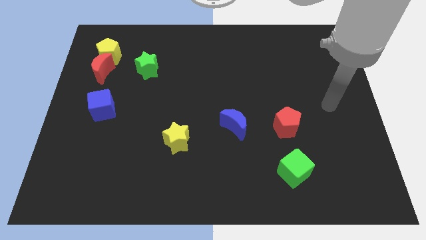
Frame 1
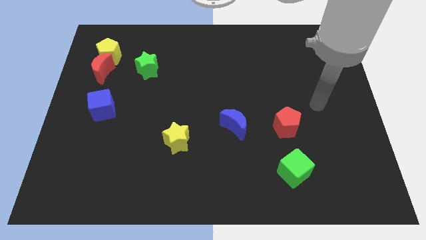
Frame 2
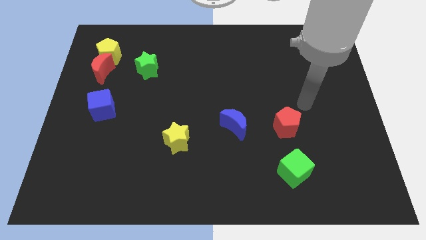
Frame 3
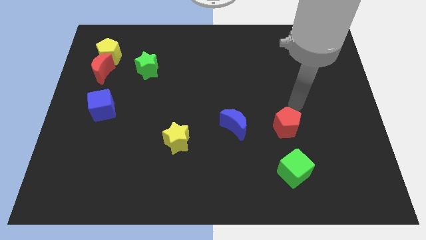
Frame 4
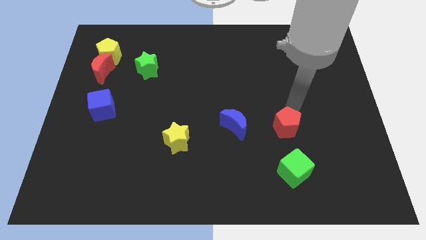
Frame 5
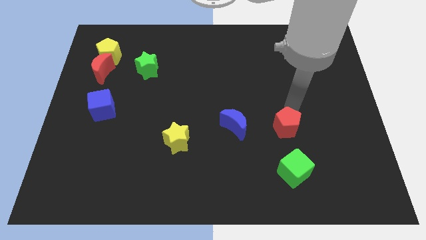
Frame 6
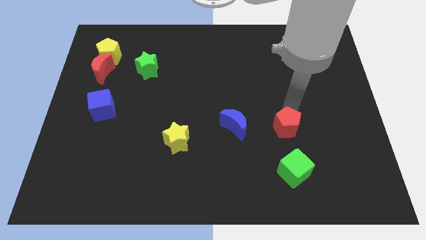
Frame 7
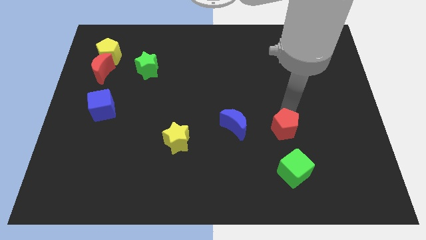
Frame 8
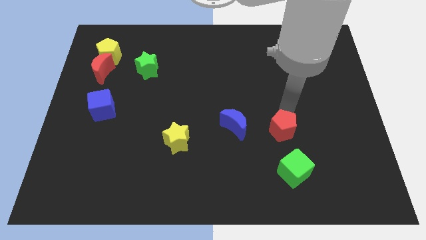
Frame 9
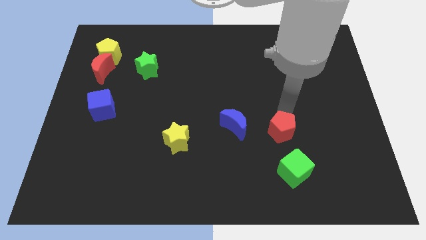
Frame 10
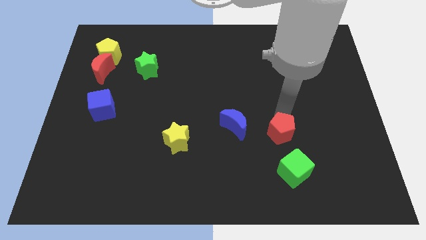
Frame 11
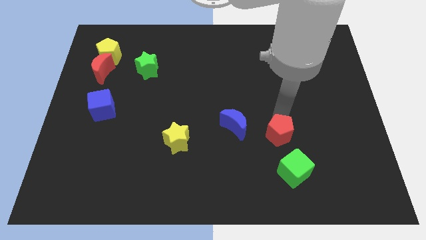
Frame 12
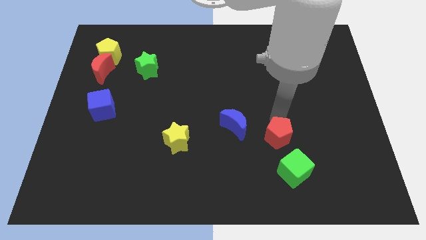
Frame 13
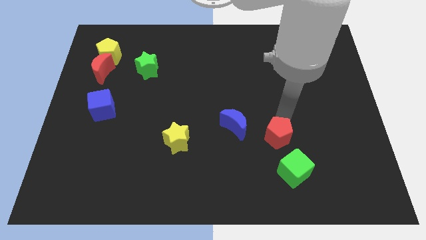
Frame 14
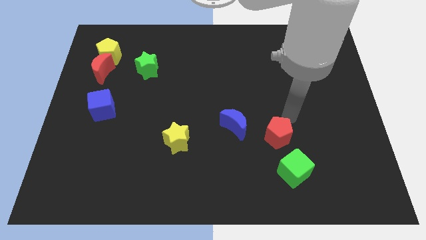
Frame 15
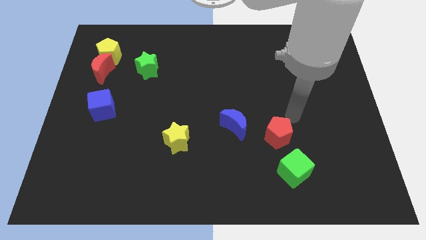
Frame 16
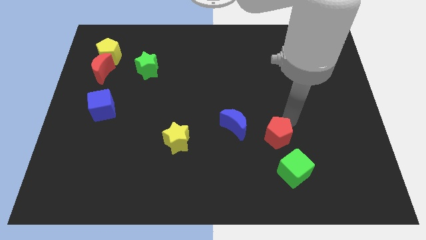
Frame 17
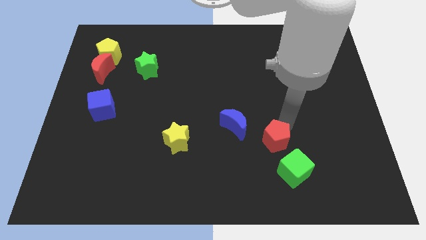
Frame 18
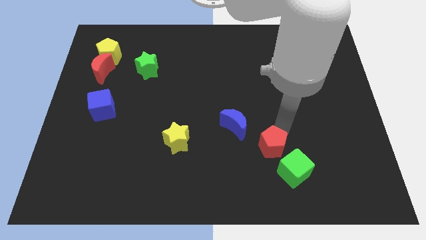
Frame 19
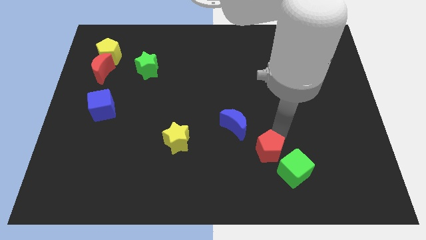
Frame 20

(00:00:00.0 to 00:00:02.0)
slide the red pentagon downwards and left diagonally slightly

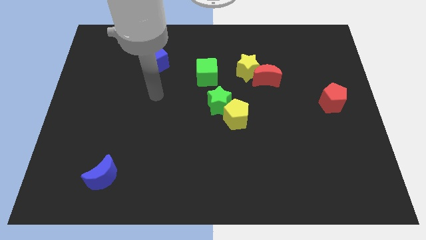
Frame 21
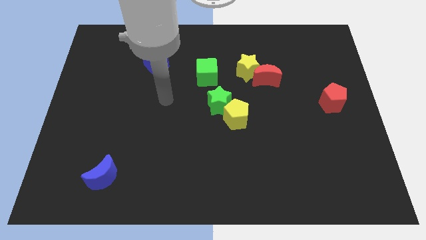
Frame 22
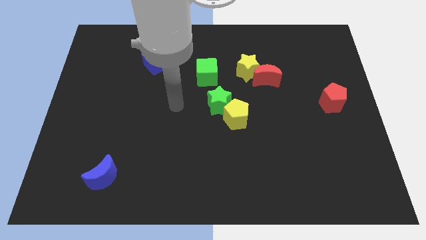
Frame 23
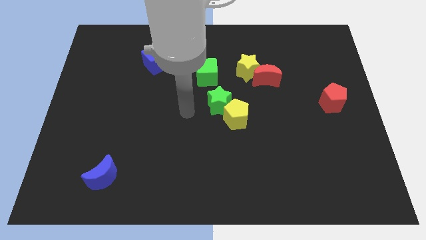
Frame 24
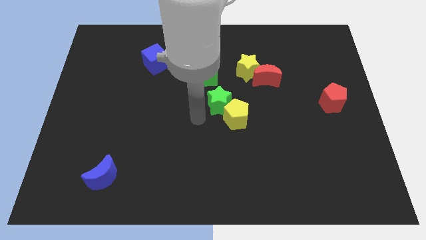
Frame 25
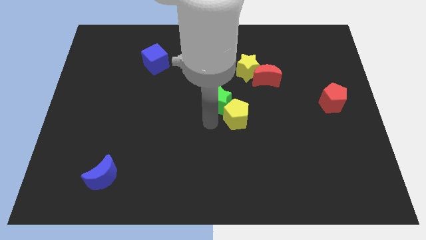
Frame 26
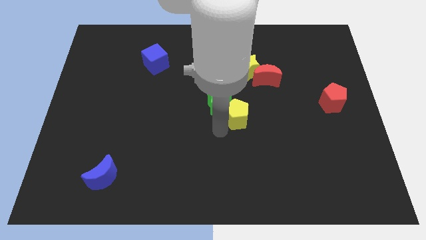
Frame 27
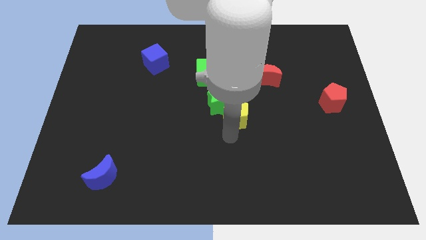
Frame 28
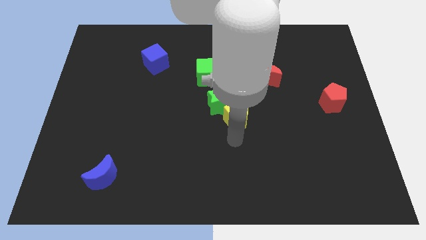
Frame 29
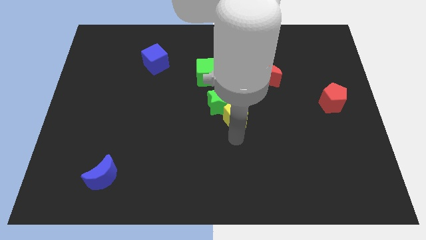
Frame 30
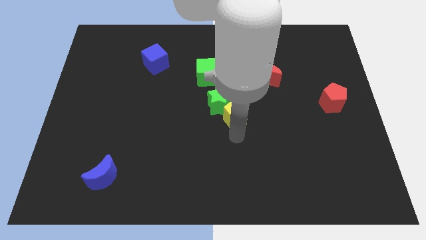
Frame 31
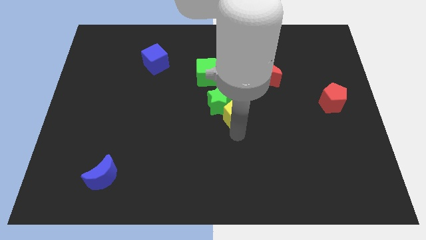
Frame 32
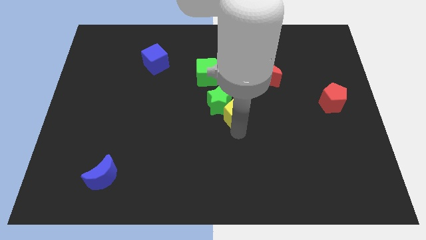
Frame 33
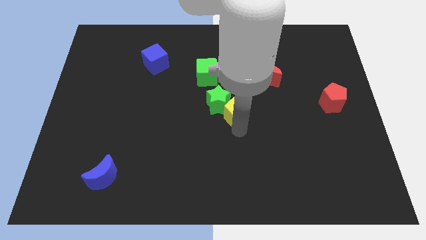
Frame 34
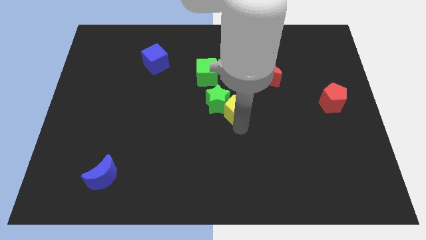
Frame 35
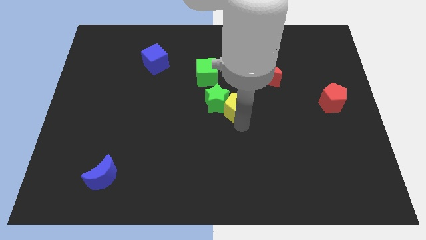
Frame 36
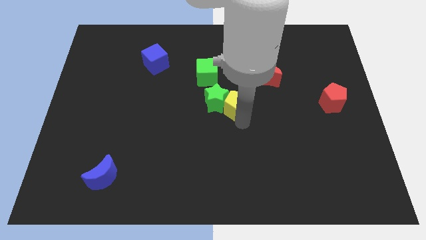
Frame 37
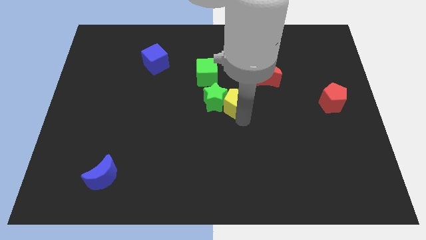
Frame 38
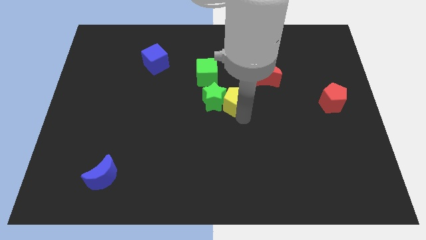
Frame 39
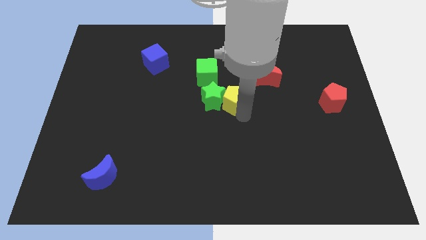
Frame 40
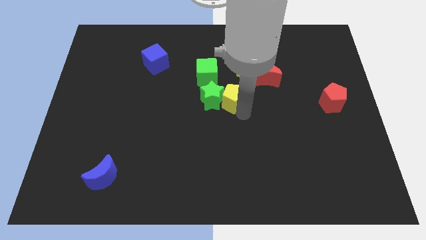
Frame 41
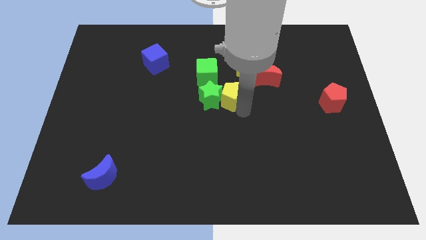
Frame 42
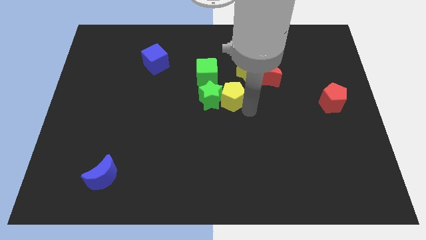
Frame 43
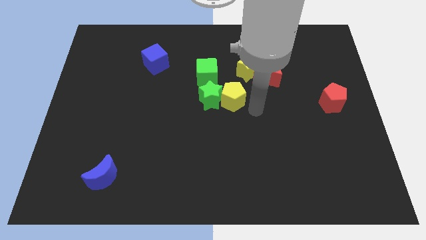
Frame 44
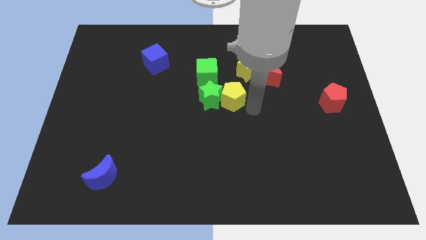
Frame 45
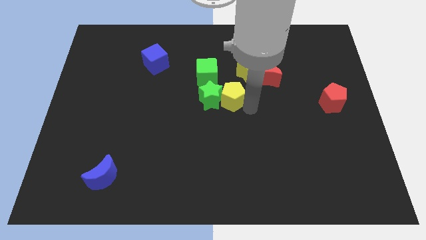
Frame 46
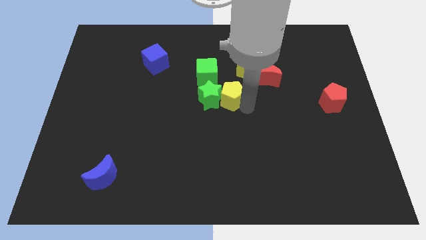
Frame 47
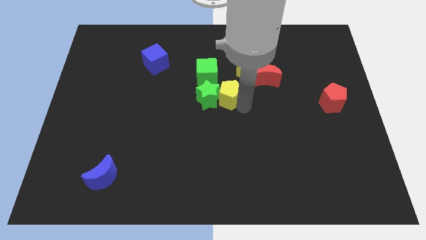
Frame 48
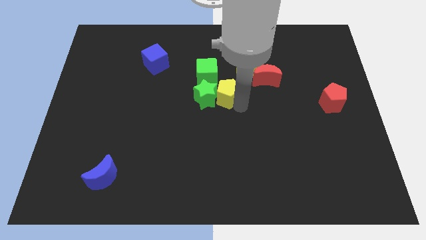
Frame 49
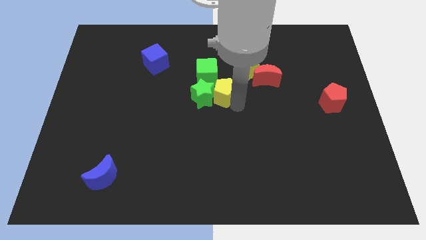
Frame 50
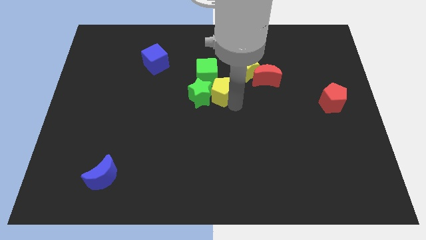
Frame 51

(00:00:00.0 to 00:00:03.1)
move the yellow pentagon a bit upwards and then to the left

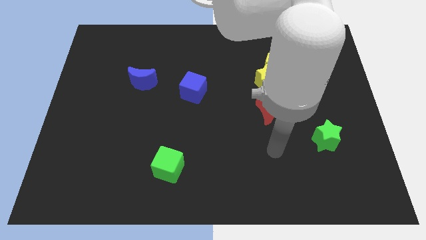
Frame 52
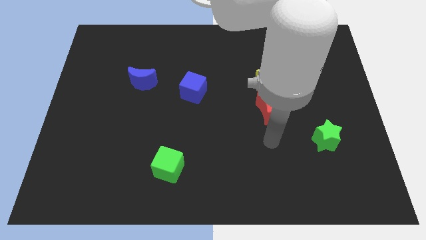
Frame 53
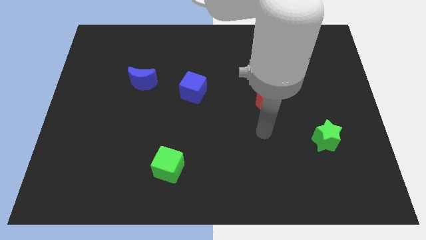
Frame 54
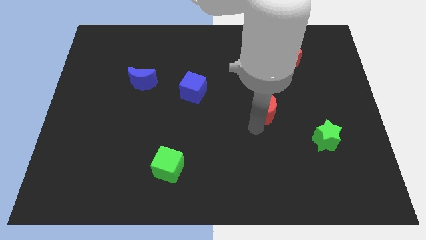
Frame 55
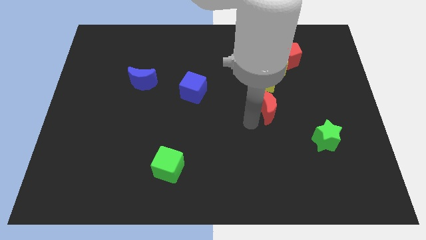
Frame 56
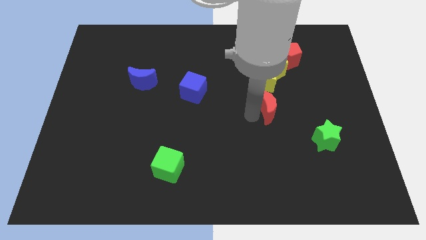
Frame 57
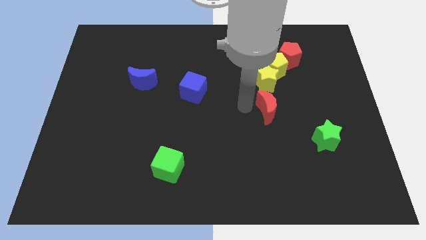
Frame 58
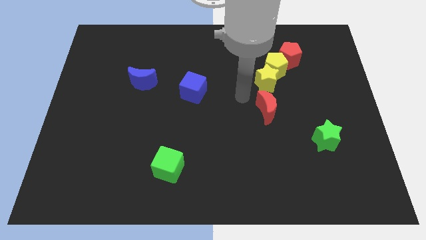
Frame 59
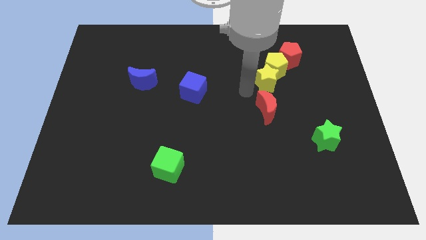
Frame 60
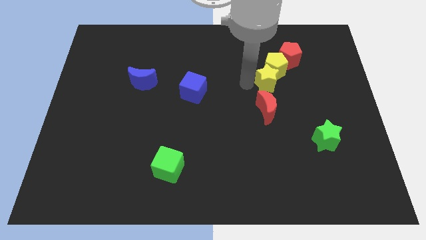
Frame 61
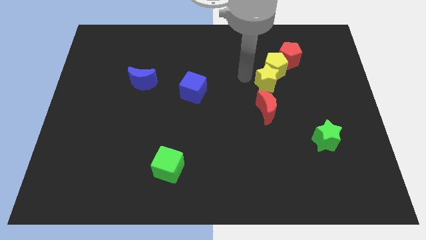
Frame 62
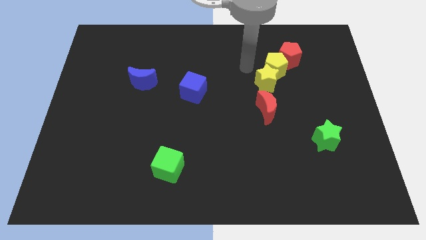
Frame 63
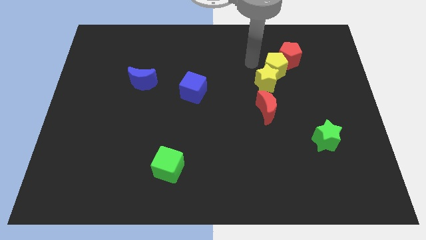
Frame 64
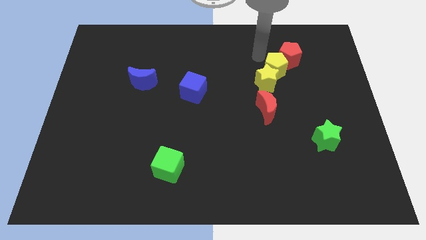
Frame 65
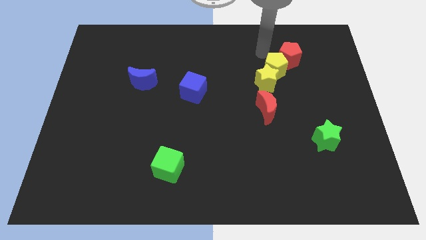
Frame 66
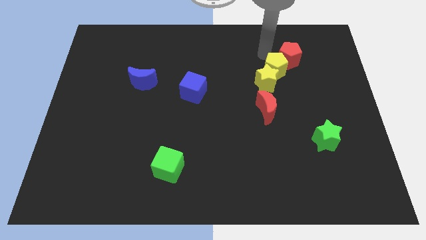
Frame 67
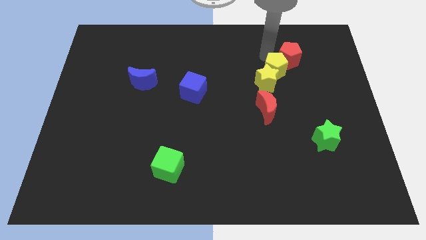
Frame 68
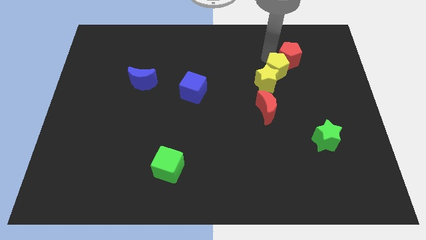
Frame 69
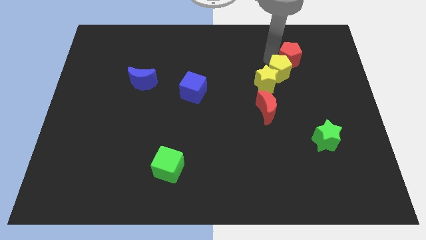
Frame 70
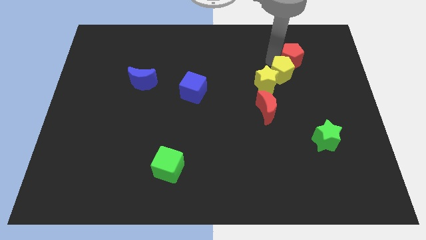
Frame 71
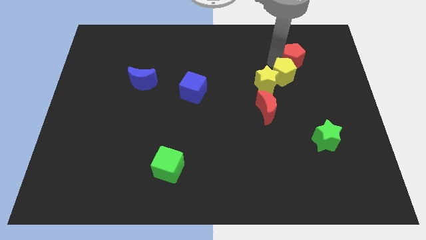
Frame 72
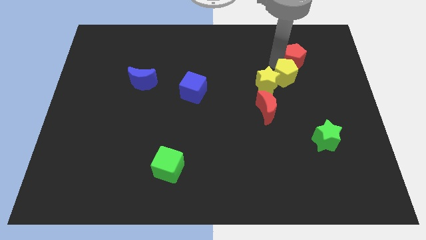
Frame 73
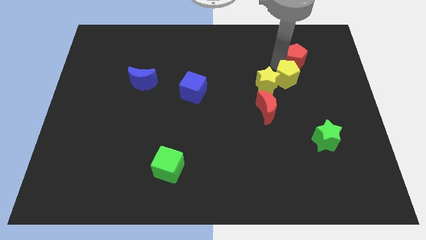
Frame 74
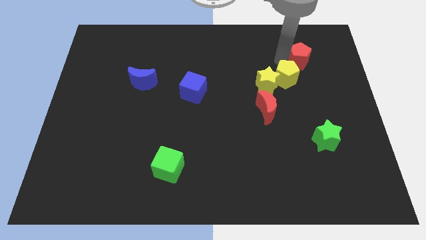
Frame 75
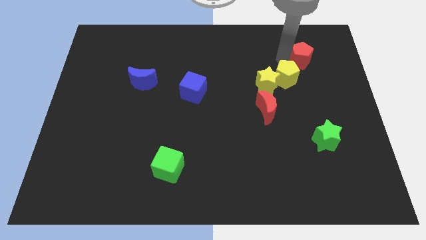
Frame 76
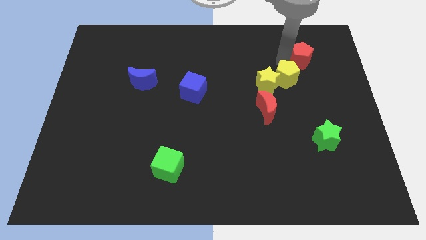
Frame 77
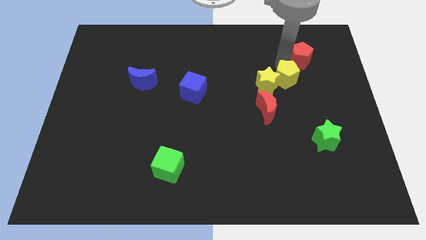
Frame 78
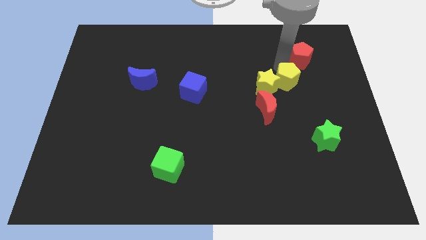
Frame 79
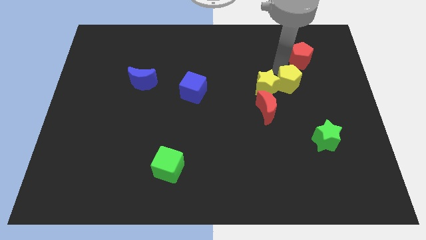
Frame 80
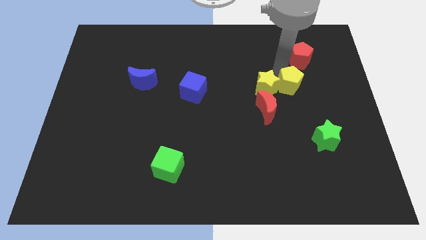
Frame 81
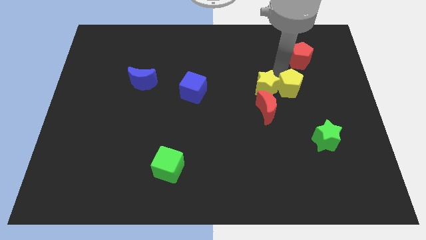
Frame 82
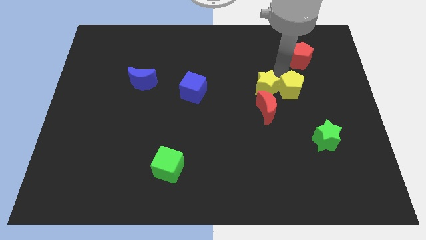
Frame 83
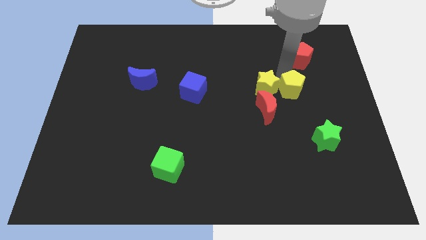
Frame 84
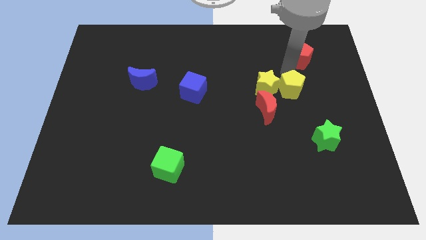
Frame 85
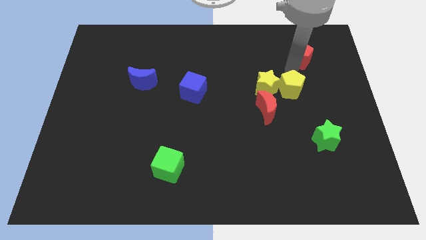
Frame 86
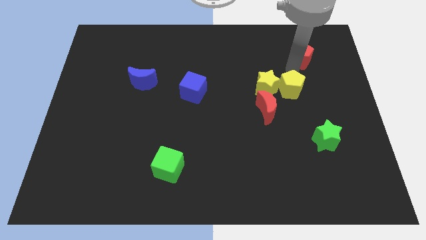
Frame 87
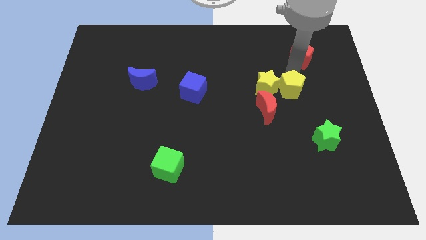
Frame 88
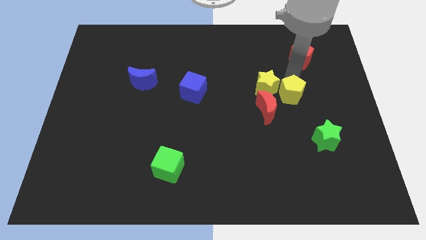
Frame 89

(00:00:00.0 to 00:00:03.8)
slightly move the yellow pentagon down
